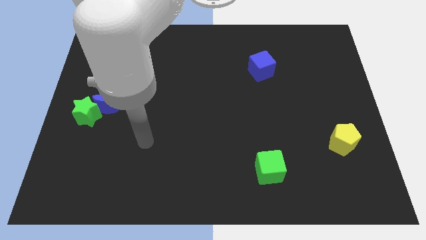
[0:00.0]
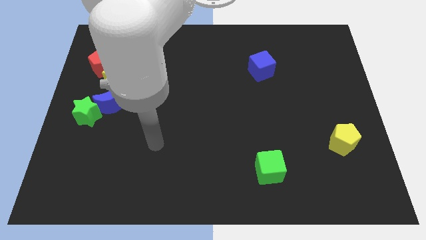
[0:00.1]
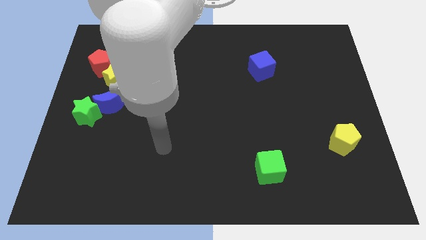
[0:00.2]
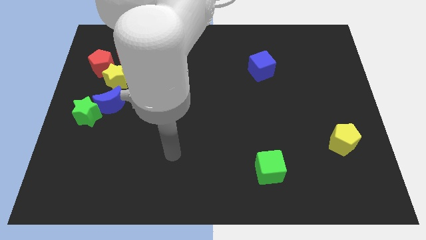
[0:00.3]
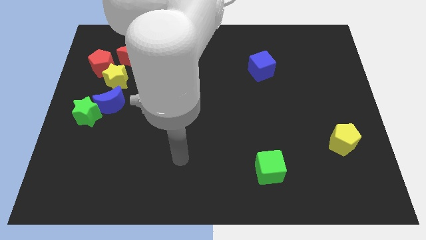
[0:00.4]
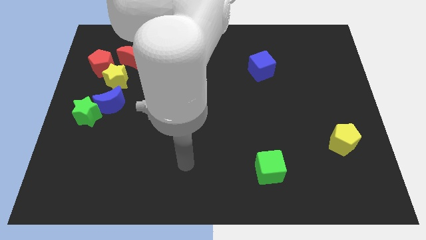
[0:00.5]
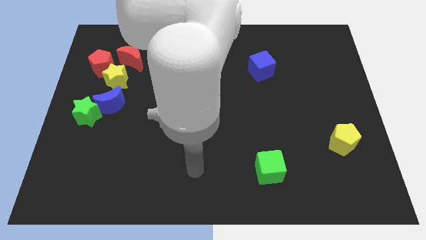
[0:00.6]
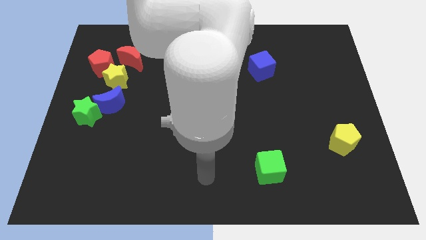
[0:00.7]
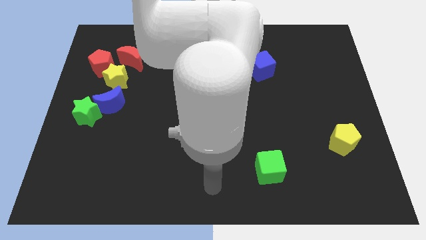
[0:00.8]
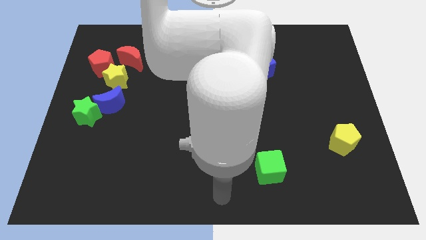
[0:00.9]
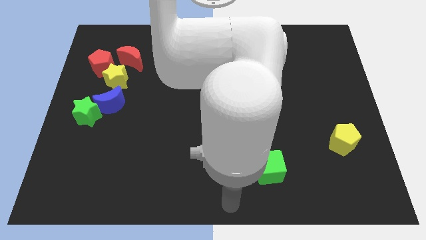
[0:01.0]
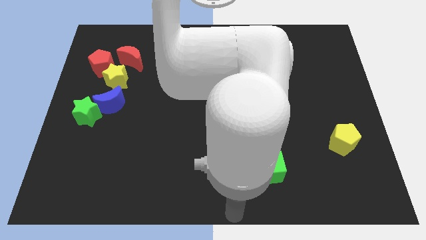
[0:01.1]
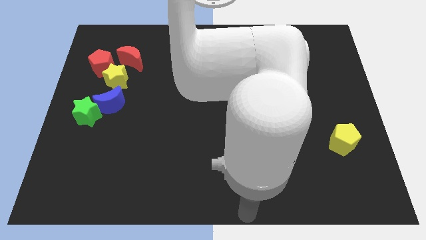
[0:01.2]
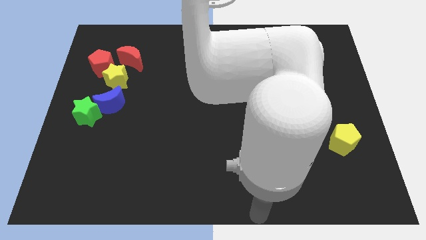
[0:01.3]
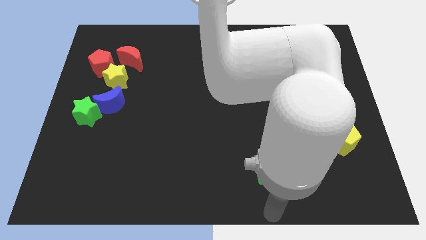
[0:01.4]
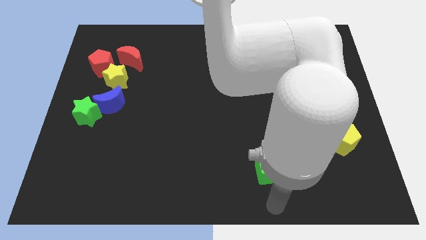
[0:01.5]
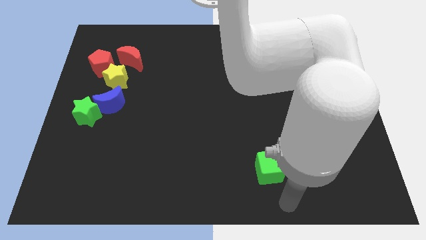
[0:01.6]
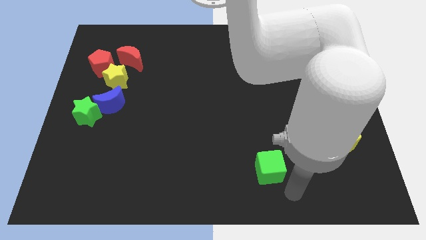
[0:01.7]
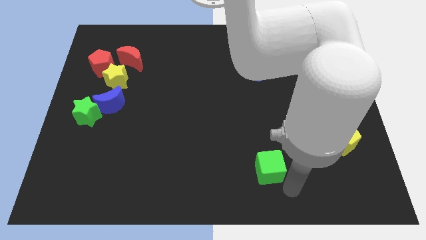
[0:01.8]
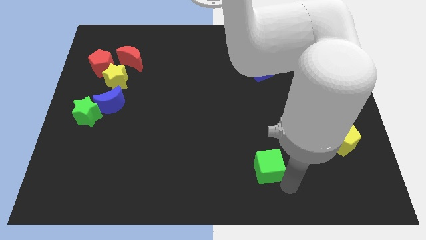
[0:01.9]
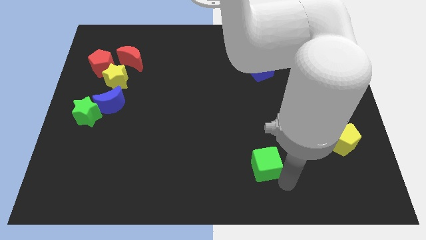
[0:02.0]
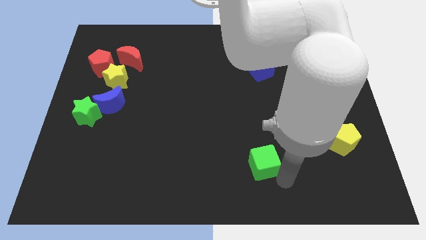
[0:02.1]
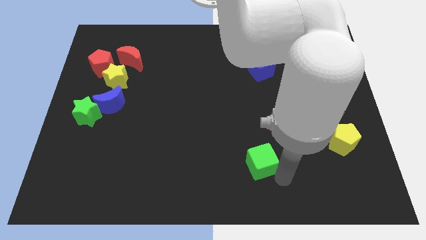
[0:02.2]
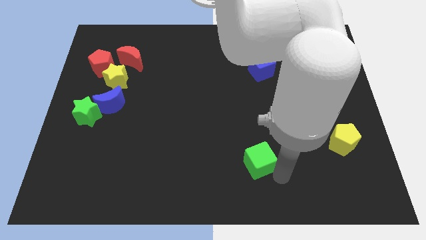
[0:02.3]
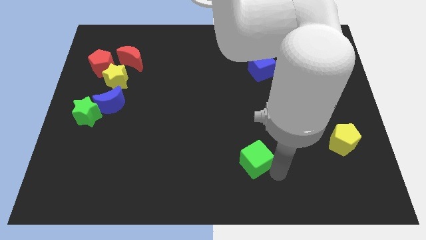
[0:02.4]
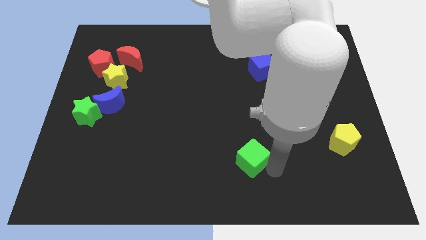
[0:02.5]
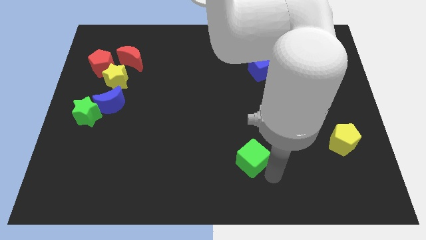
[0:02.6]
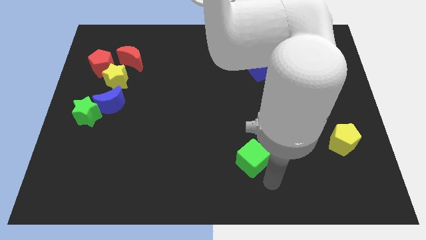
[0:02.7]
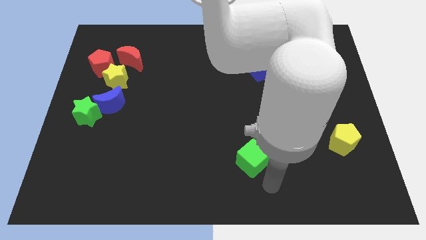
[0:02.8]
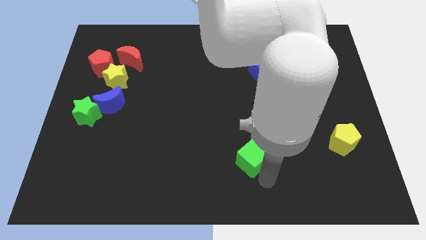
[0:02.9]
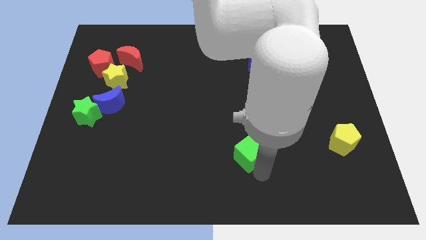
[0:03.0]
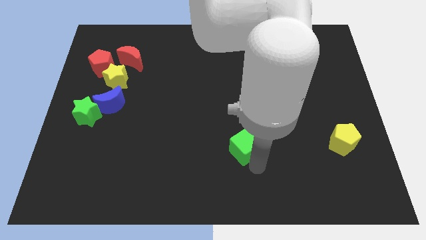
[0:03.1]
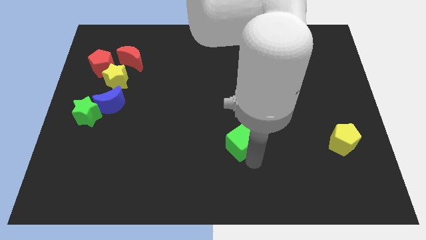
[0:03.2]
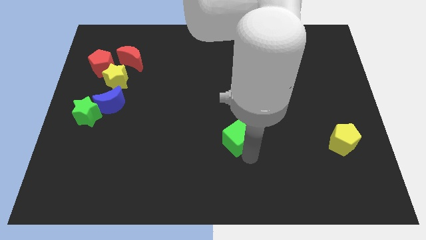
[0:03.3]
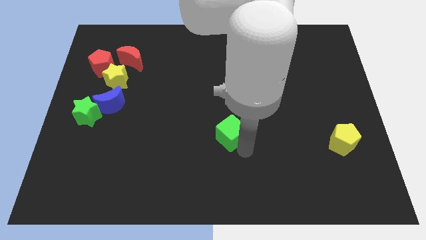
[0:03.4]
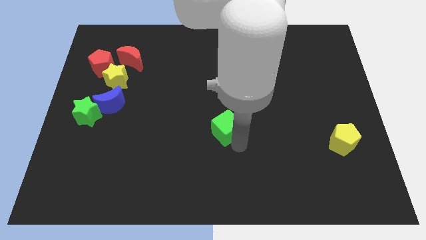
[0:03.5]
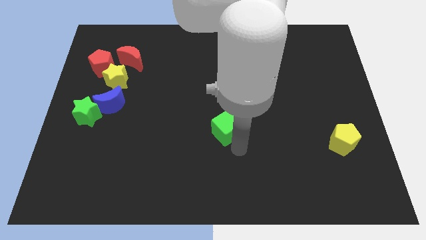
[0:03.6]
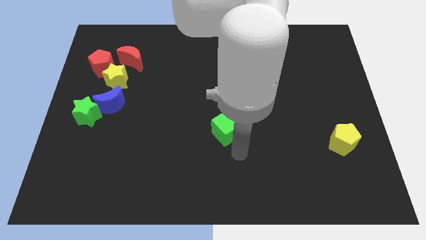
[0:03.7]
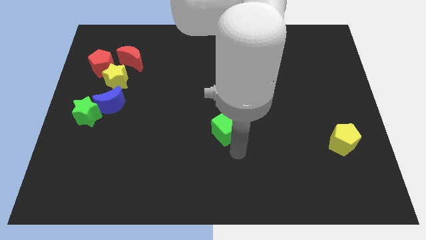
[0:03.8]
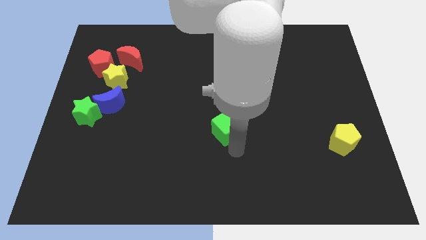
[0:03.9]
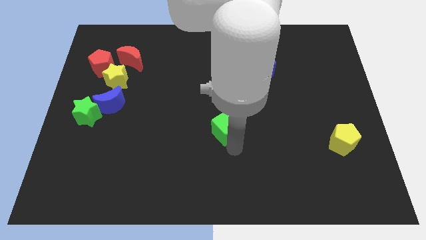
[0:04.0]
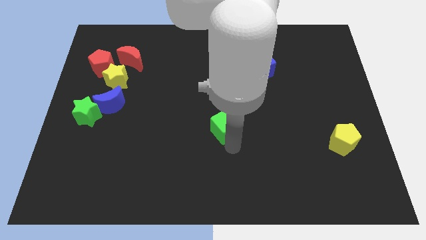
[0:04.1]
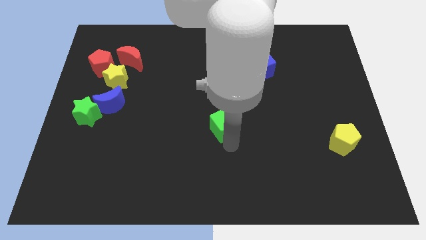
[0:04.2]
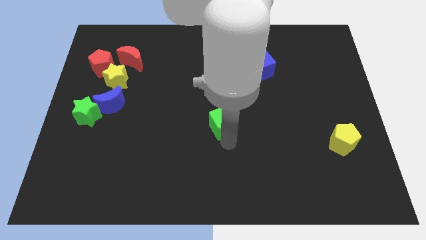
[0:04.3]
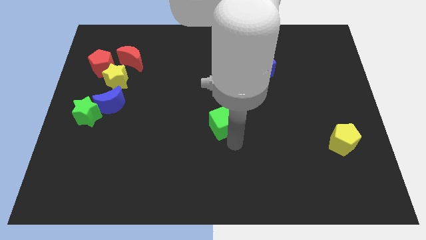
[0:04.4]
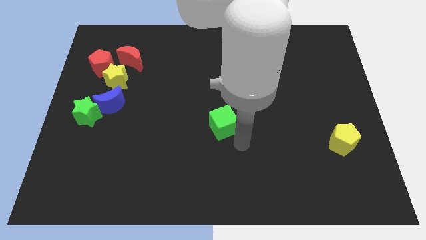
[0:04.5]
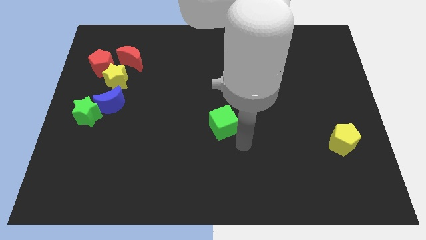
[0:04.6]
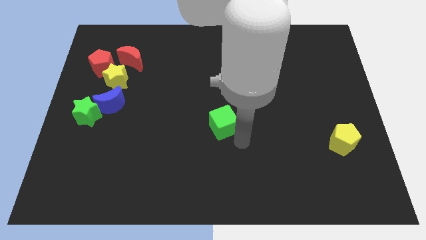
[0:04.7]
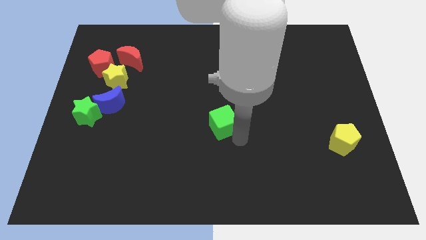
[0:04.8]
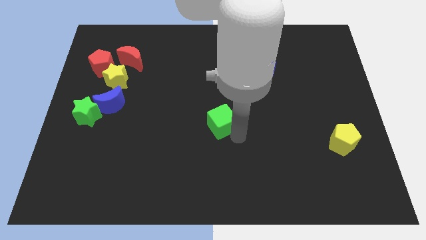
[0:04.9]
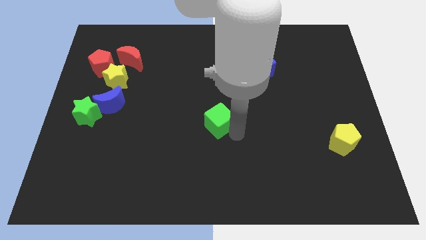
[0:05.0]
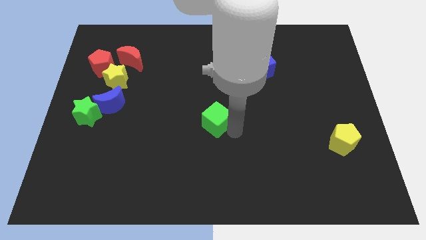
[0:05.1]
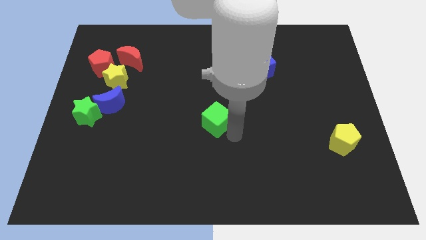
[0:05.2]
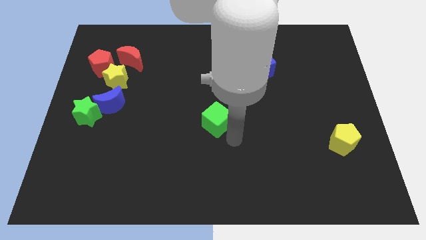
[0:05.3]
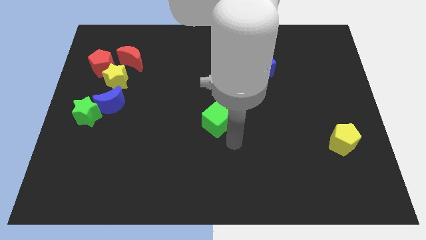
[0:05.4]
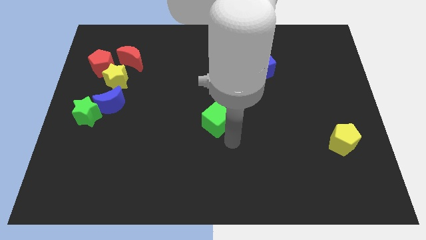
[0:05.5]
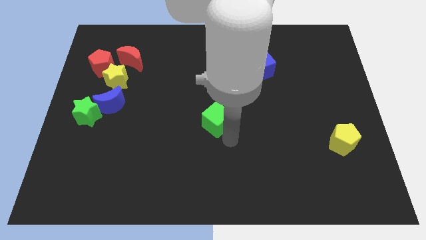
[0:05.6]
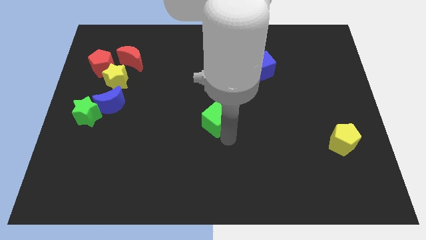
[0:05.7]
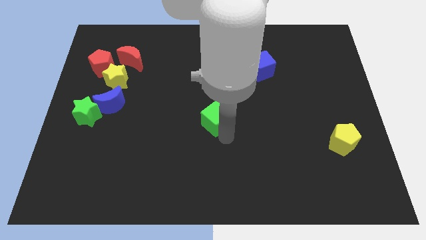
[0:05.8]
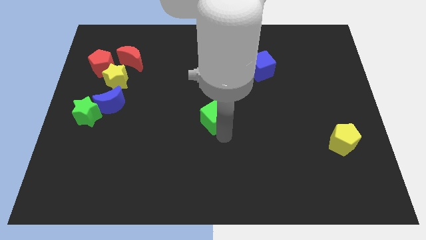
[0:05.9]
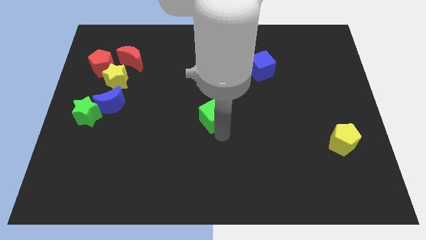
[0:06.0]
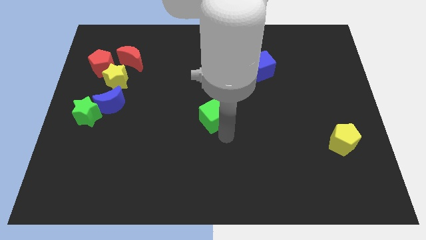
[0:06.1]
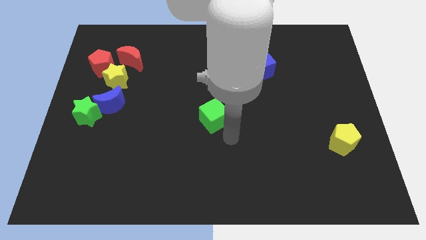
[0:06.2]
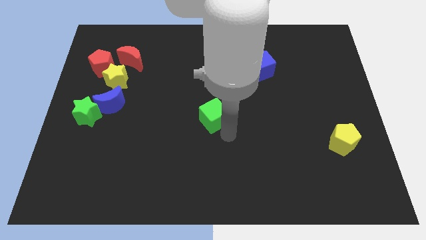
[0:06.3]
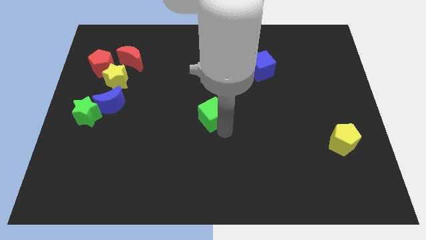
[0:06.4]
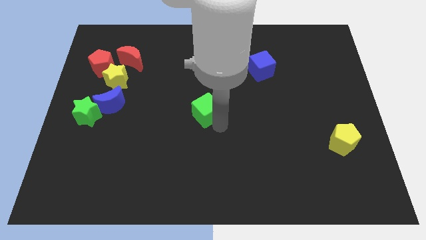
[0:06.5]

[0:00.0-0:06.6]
slide the green cube up and to the left

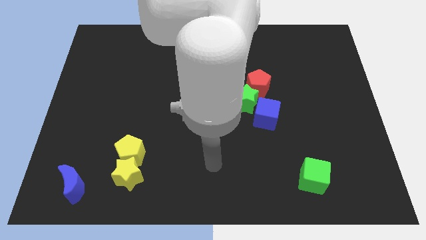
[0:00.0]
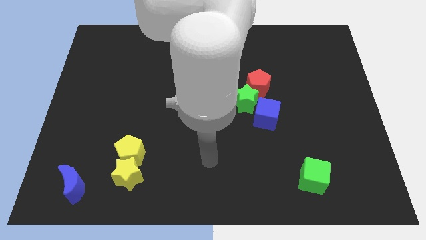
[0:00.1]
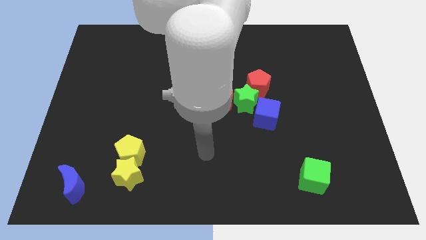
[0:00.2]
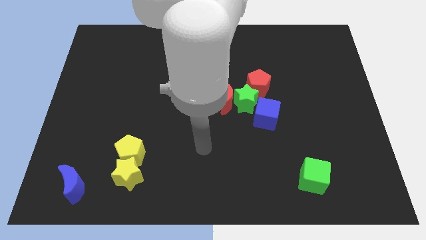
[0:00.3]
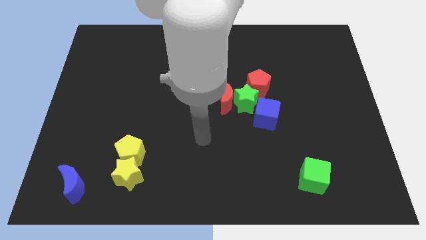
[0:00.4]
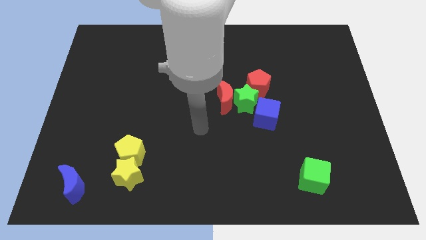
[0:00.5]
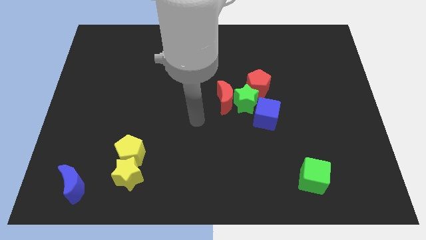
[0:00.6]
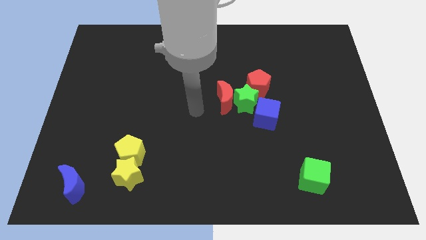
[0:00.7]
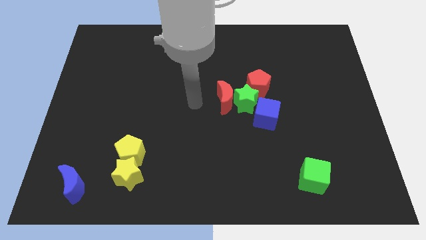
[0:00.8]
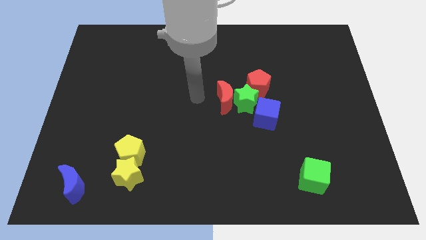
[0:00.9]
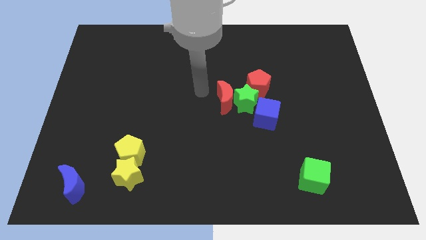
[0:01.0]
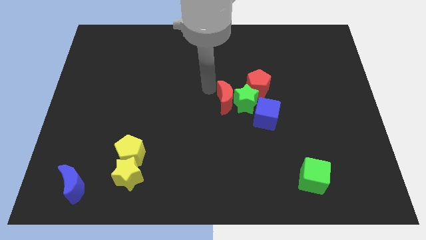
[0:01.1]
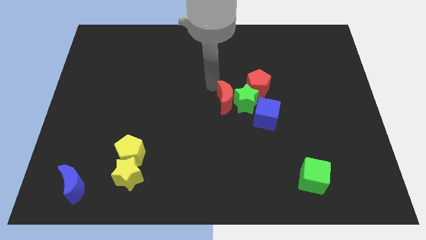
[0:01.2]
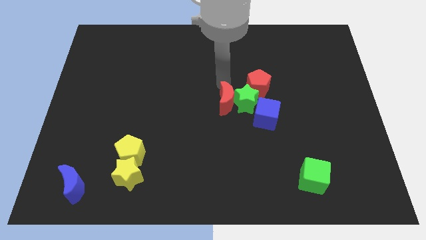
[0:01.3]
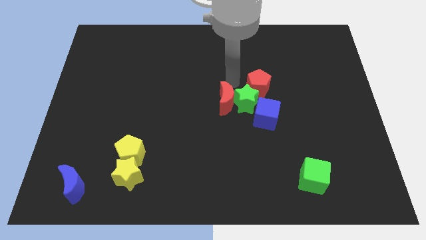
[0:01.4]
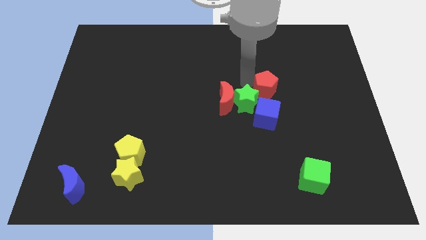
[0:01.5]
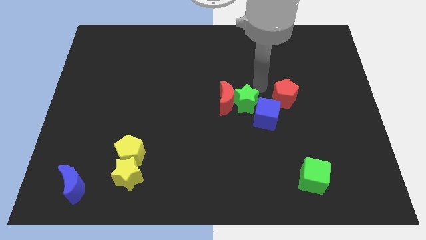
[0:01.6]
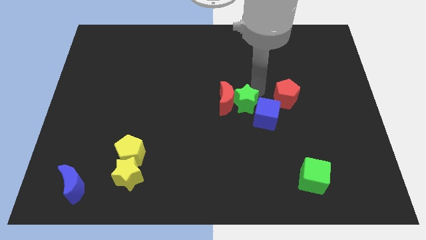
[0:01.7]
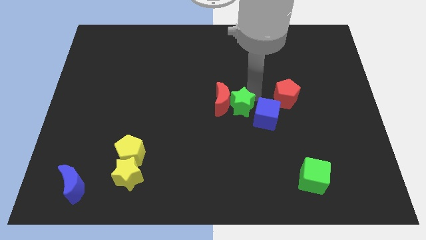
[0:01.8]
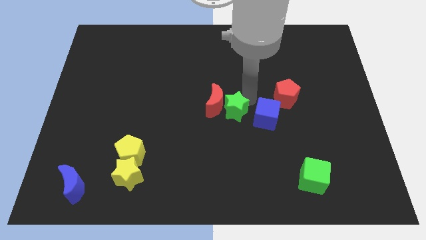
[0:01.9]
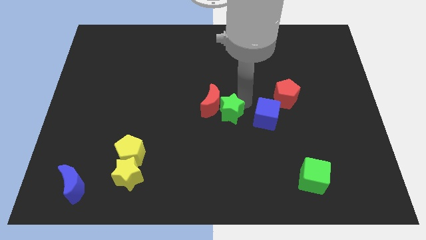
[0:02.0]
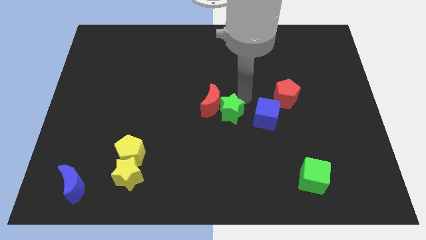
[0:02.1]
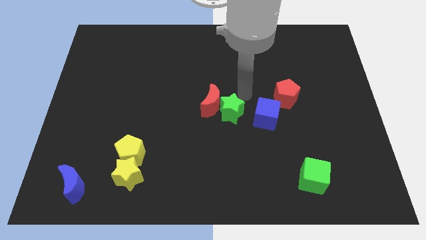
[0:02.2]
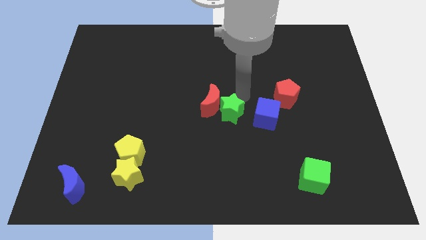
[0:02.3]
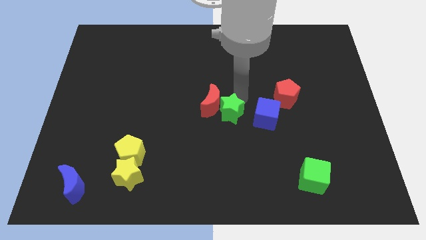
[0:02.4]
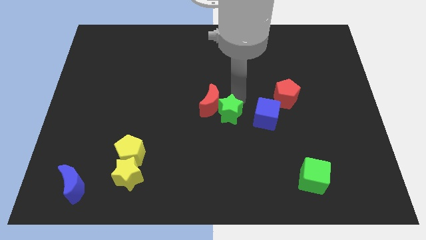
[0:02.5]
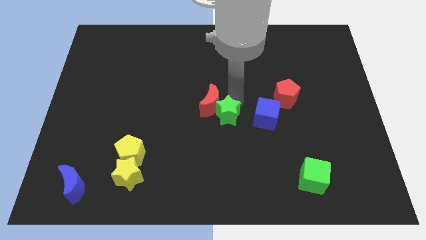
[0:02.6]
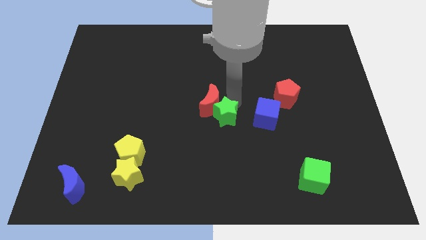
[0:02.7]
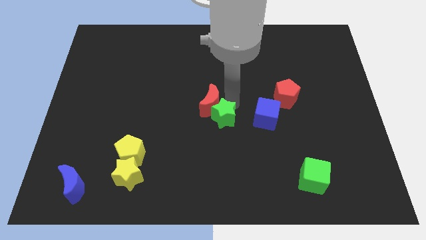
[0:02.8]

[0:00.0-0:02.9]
slide the green star slightly downwards and to the left
